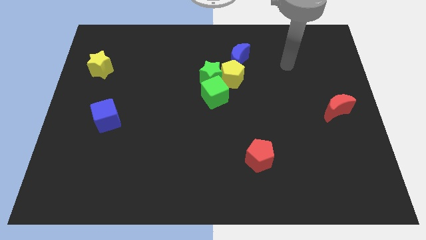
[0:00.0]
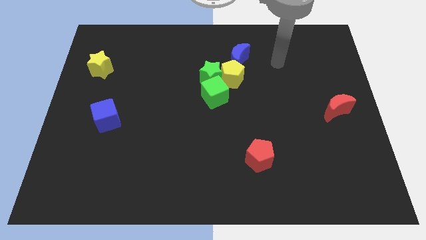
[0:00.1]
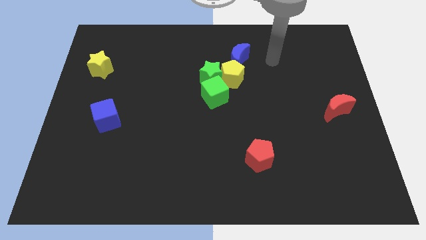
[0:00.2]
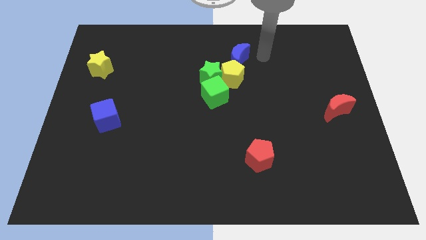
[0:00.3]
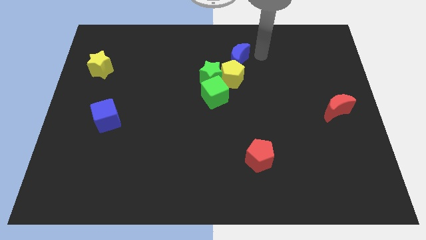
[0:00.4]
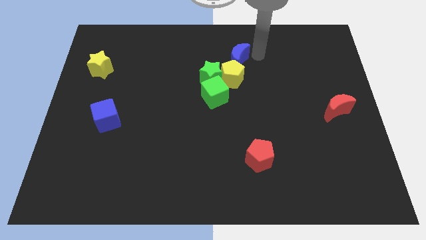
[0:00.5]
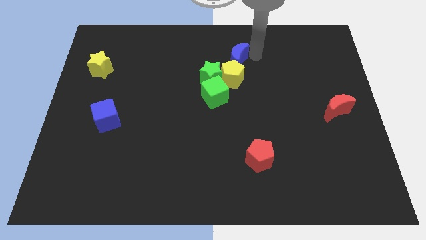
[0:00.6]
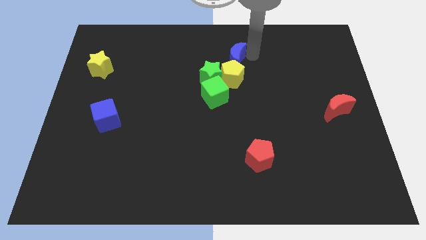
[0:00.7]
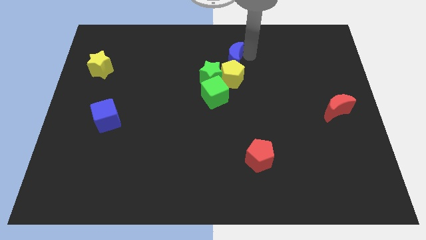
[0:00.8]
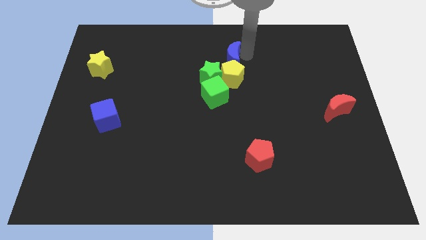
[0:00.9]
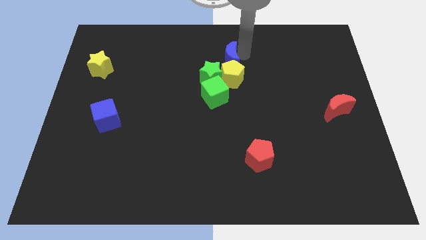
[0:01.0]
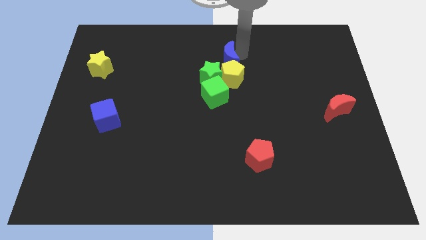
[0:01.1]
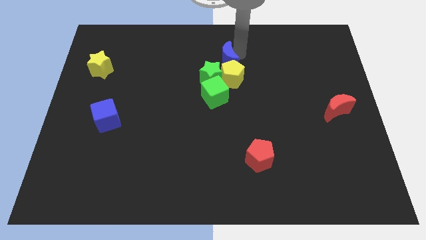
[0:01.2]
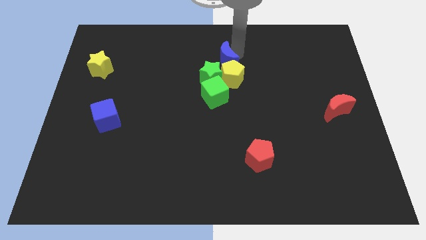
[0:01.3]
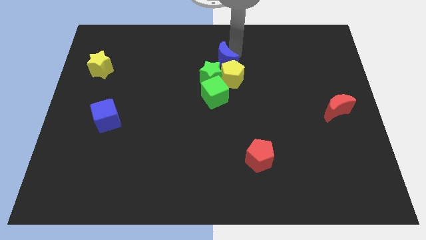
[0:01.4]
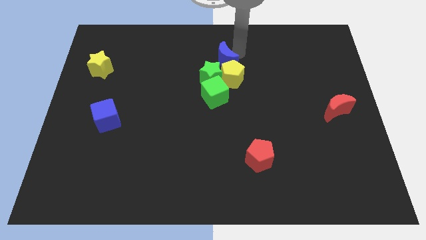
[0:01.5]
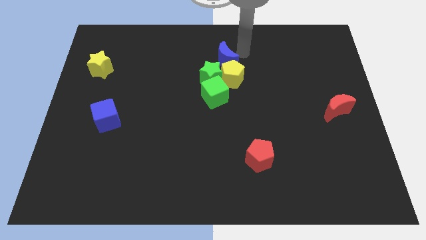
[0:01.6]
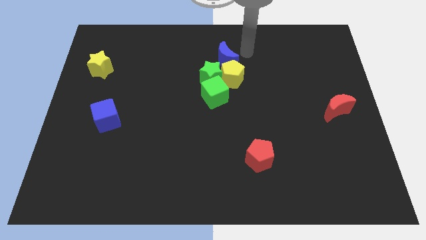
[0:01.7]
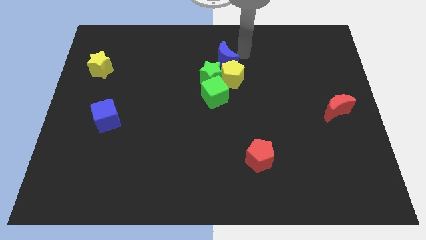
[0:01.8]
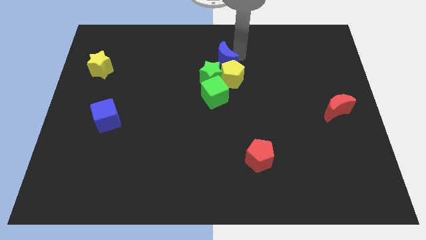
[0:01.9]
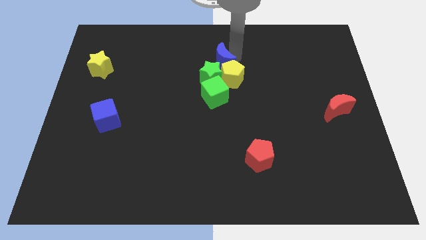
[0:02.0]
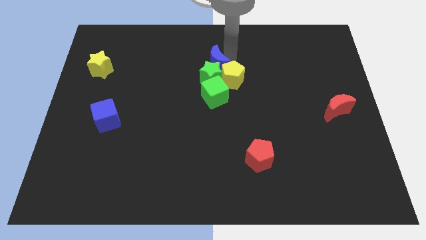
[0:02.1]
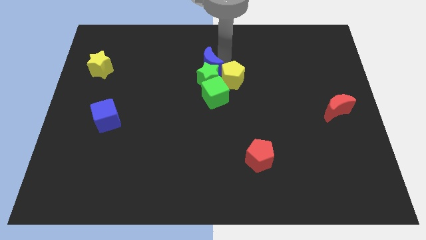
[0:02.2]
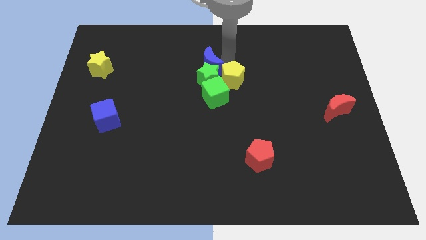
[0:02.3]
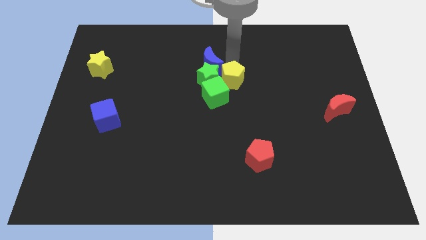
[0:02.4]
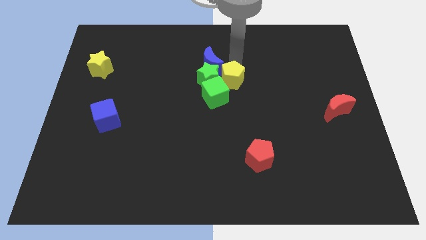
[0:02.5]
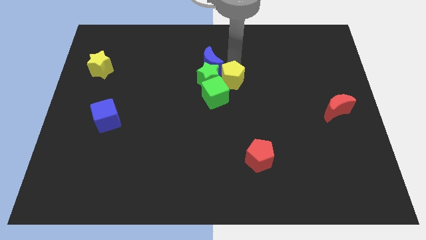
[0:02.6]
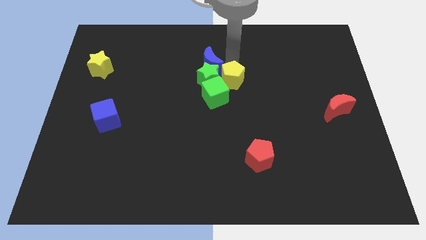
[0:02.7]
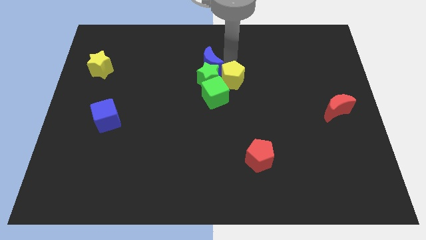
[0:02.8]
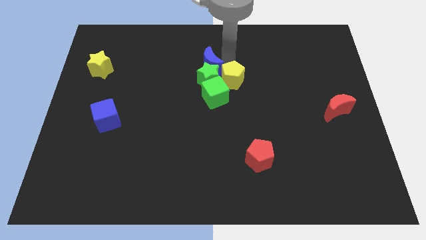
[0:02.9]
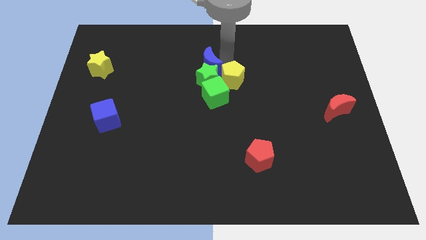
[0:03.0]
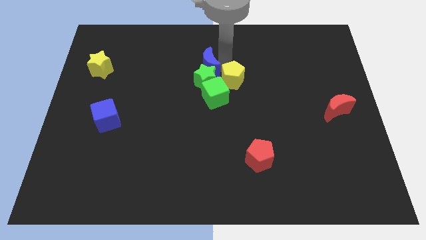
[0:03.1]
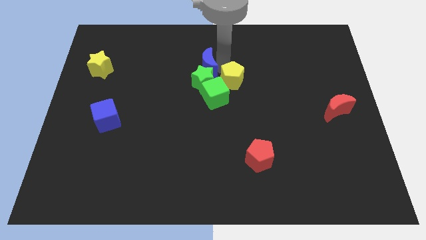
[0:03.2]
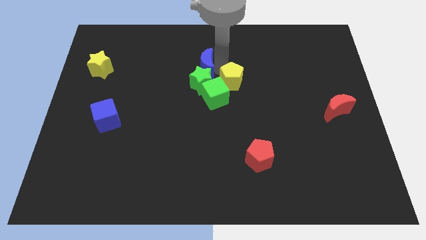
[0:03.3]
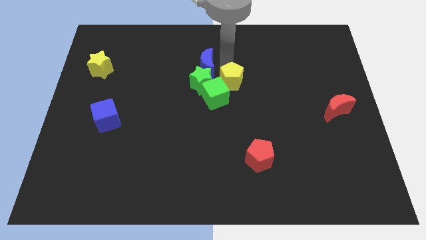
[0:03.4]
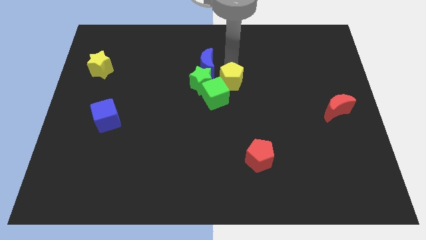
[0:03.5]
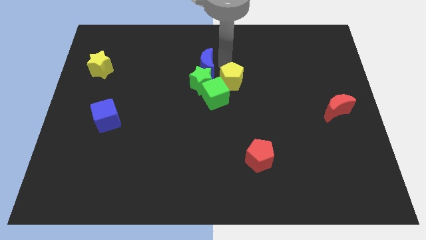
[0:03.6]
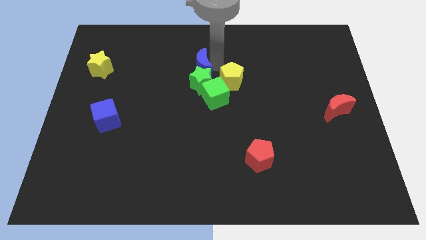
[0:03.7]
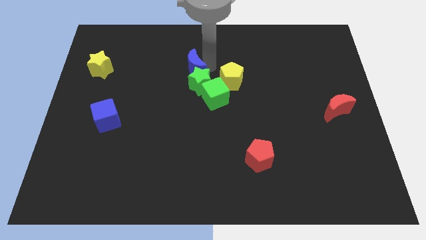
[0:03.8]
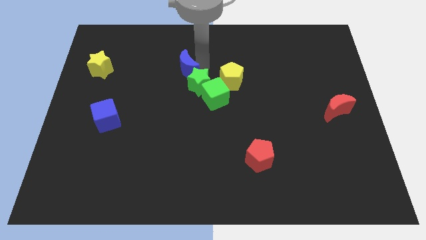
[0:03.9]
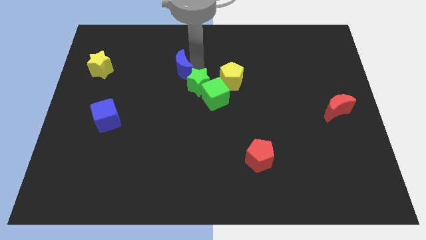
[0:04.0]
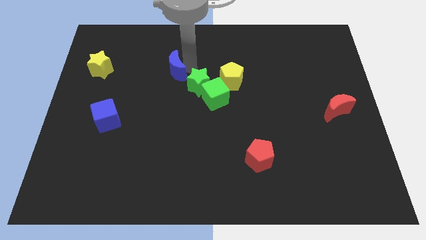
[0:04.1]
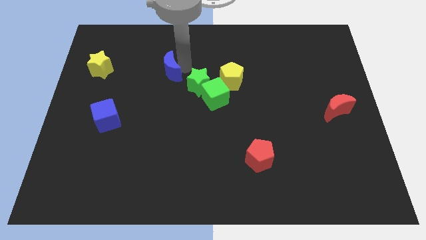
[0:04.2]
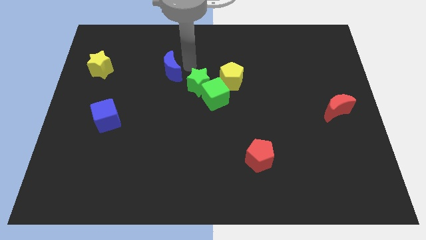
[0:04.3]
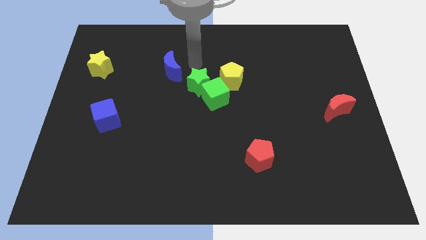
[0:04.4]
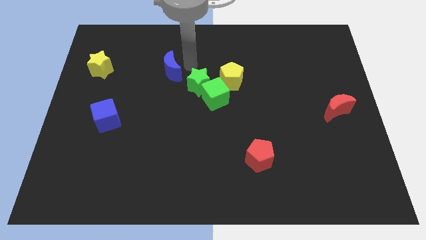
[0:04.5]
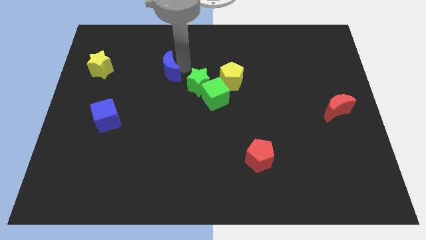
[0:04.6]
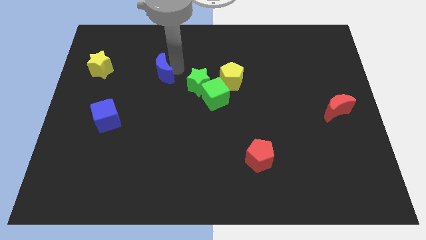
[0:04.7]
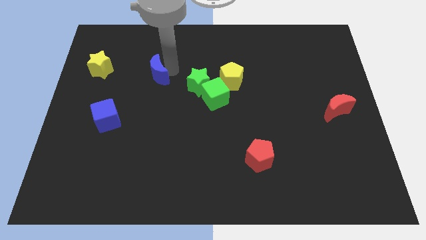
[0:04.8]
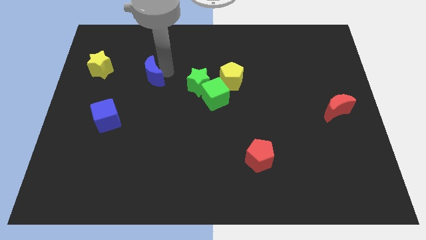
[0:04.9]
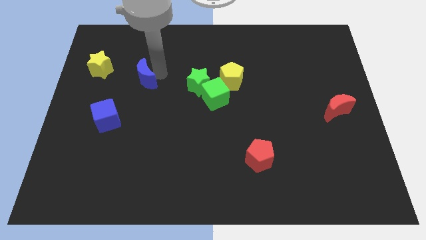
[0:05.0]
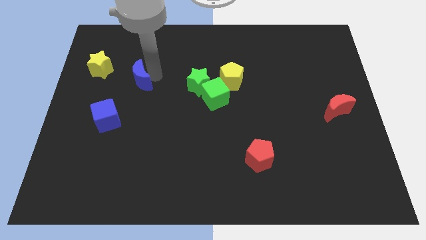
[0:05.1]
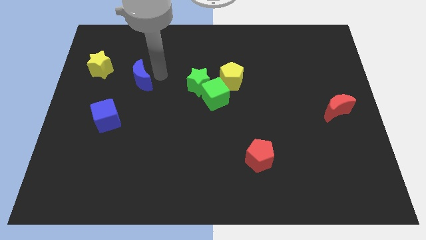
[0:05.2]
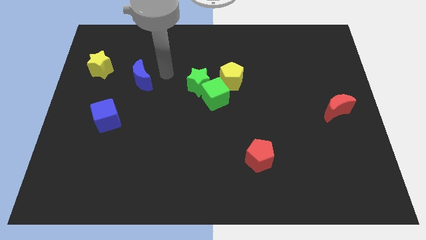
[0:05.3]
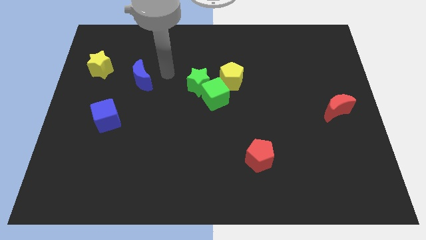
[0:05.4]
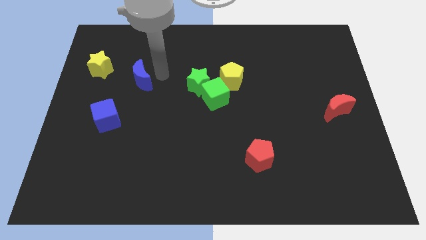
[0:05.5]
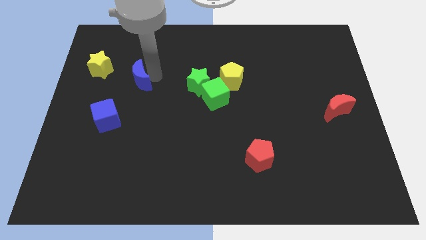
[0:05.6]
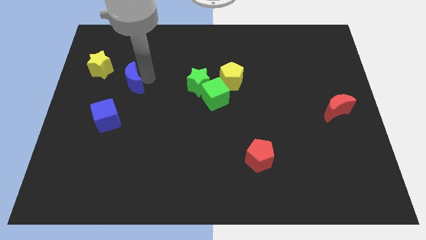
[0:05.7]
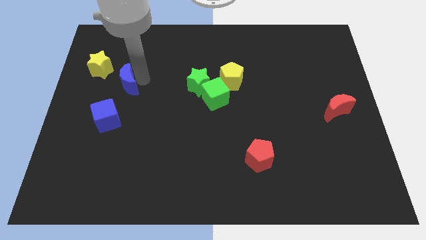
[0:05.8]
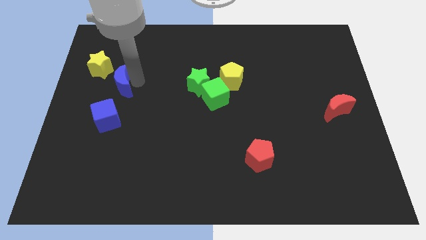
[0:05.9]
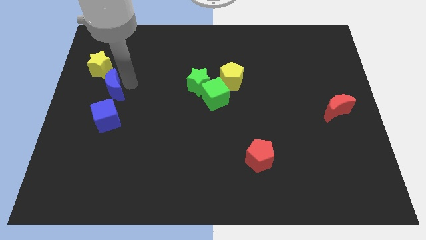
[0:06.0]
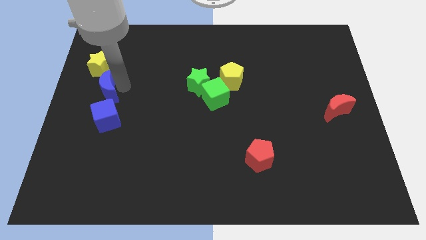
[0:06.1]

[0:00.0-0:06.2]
slide the blue moon to the center left
